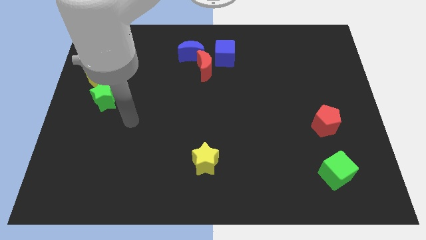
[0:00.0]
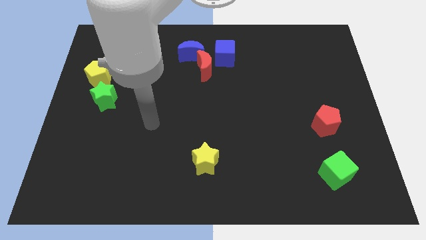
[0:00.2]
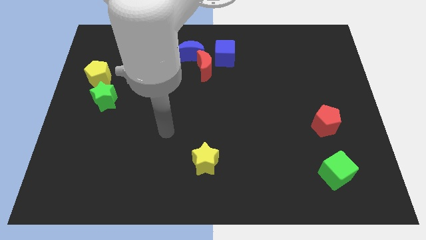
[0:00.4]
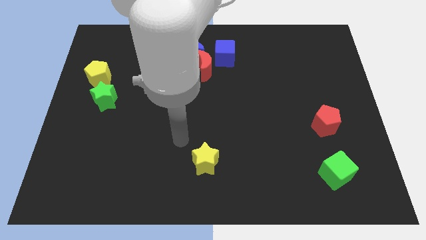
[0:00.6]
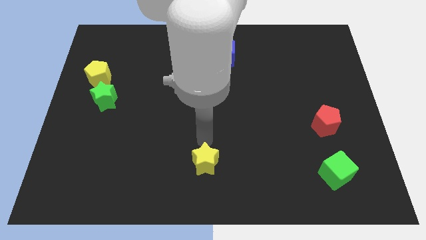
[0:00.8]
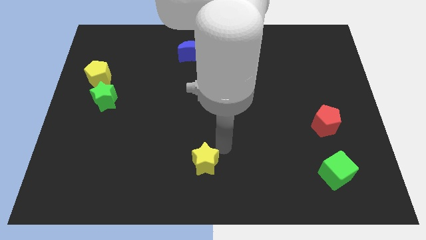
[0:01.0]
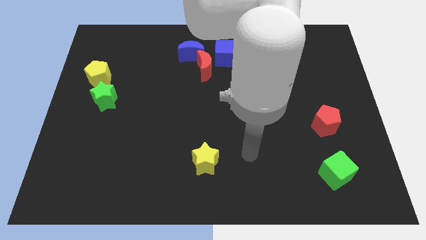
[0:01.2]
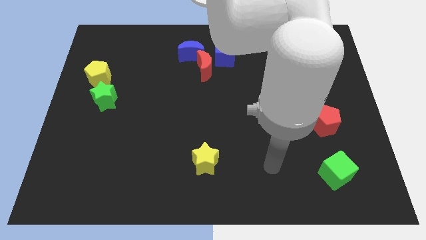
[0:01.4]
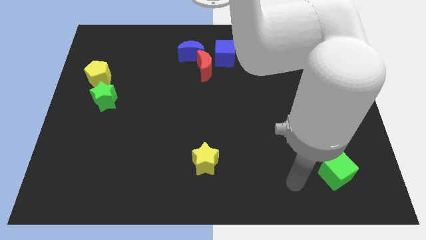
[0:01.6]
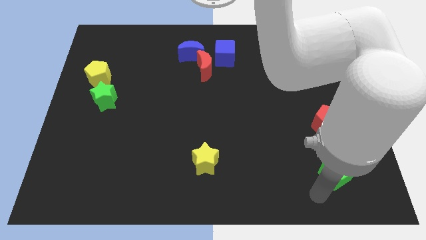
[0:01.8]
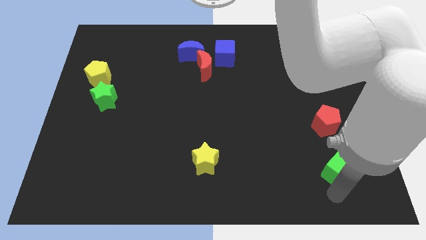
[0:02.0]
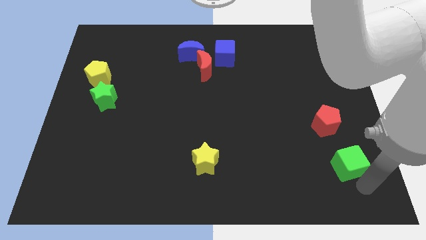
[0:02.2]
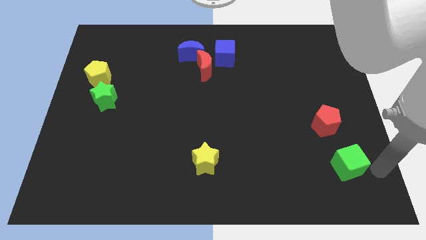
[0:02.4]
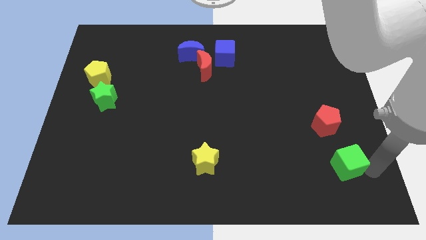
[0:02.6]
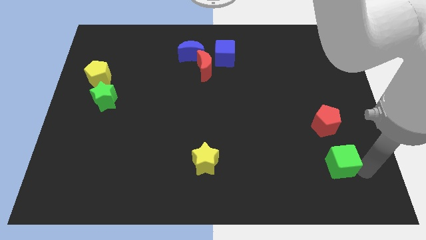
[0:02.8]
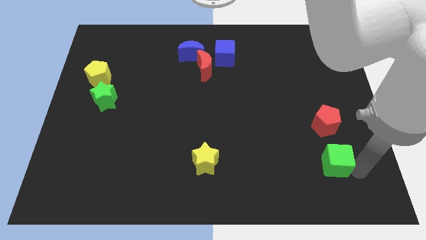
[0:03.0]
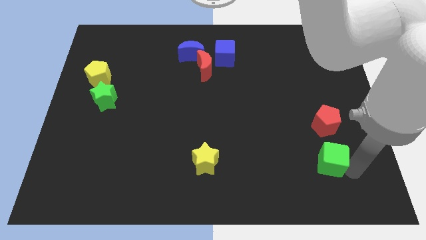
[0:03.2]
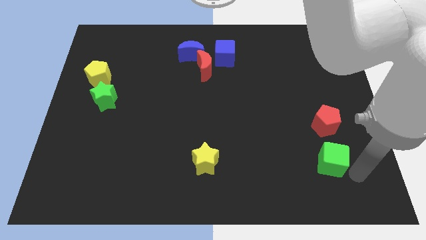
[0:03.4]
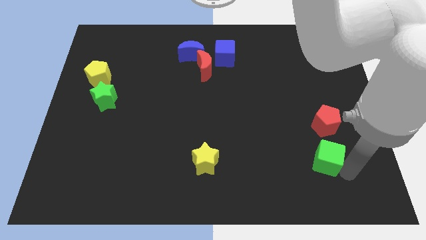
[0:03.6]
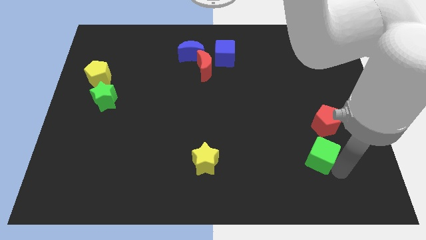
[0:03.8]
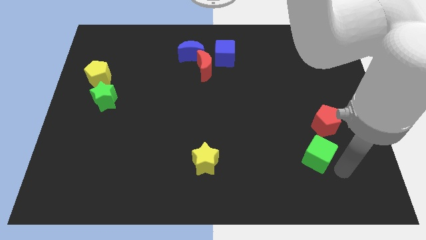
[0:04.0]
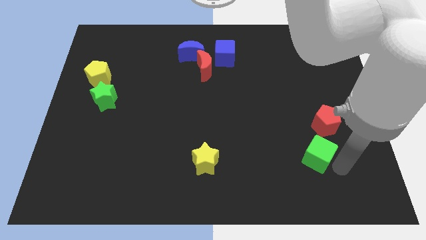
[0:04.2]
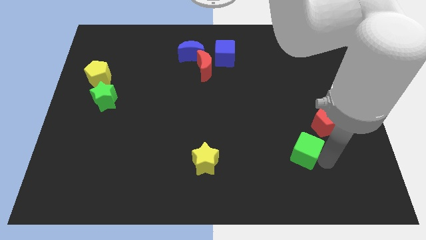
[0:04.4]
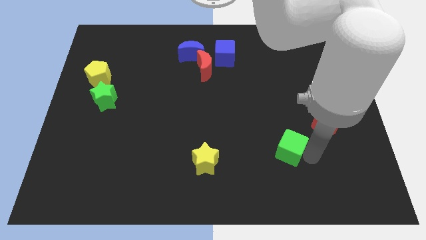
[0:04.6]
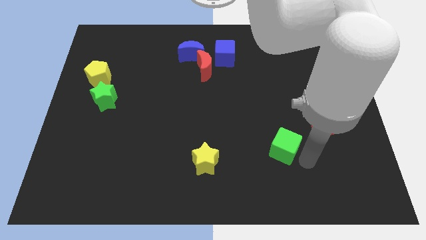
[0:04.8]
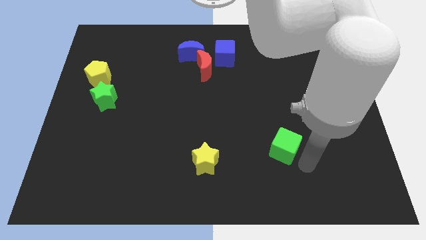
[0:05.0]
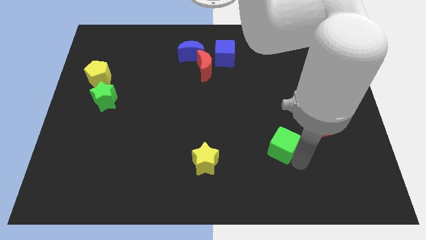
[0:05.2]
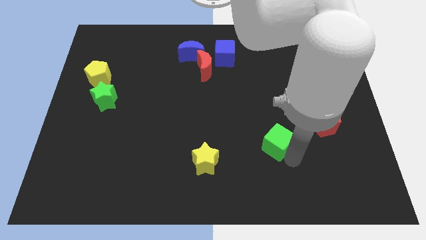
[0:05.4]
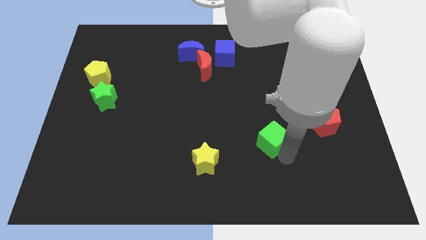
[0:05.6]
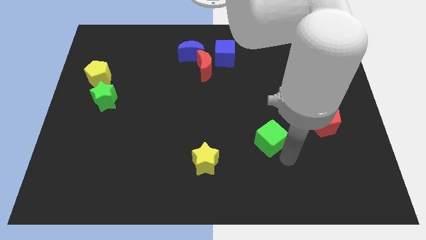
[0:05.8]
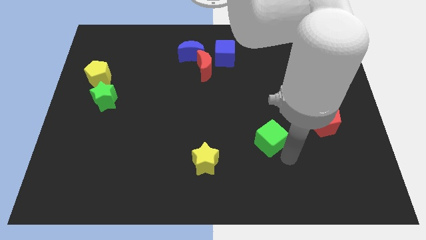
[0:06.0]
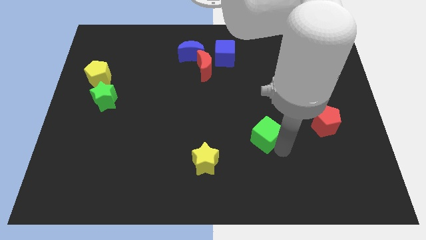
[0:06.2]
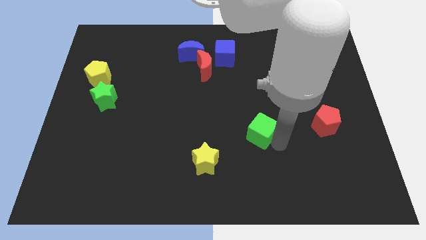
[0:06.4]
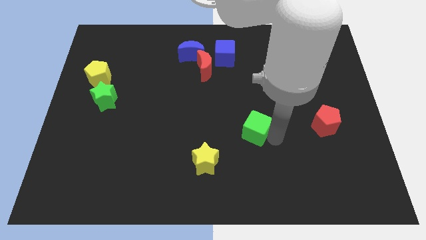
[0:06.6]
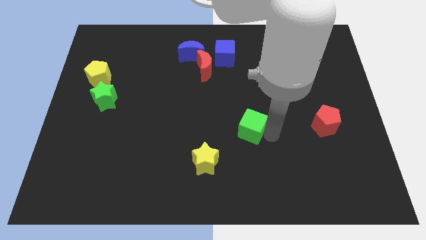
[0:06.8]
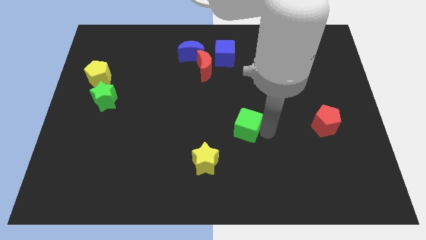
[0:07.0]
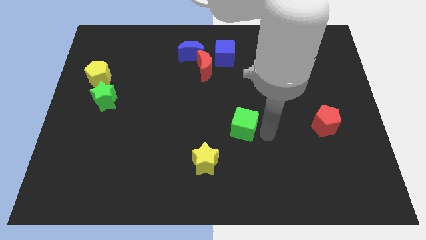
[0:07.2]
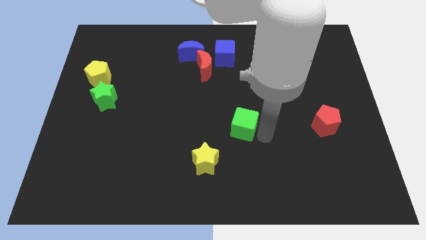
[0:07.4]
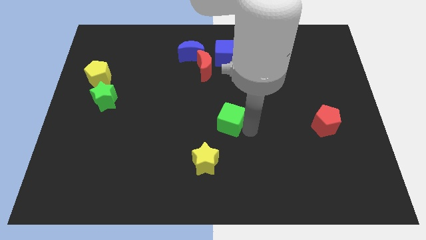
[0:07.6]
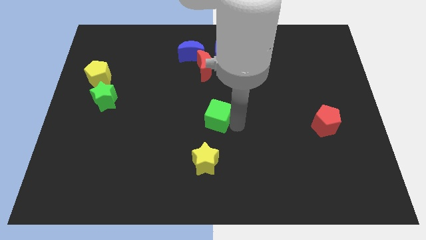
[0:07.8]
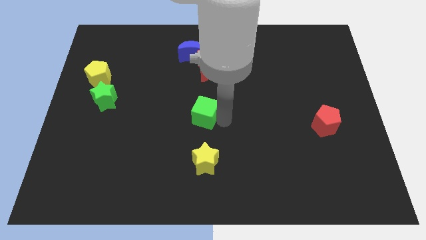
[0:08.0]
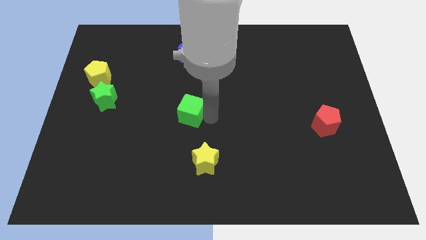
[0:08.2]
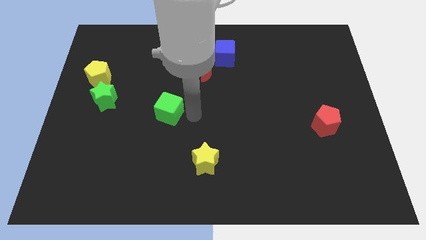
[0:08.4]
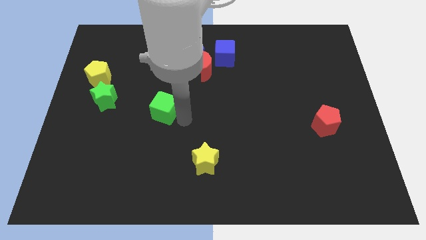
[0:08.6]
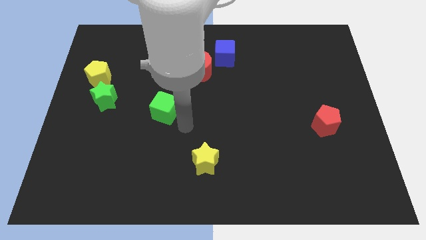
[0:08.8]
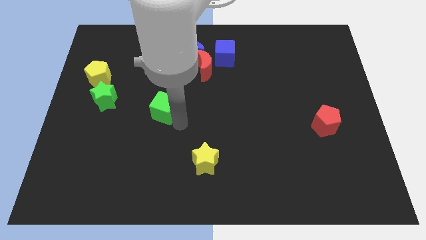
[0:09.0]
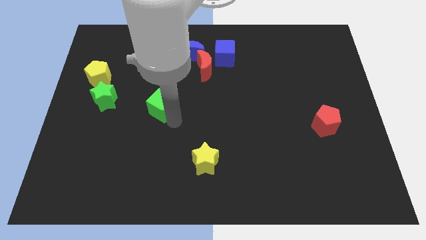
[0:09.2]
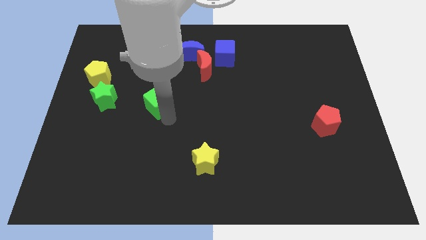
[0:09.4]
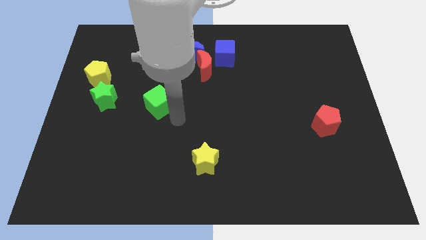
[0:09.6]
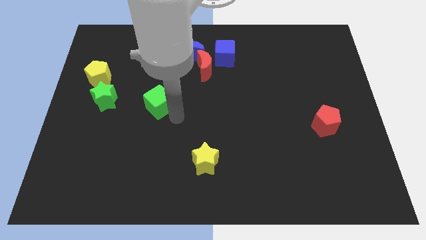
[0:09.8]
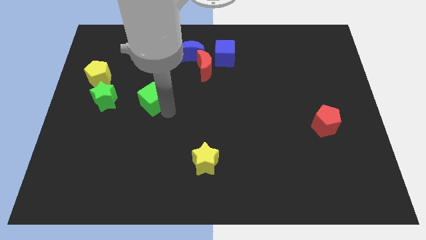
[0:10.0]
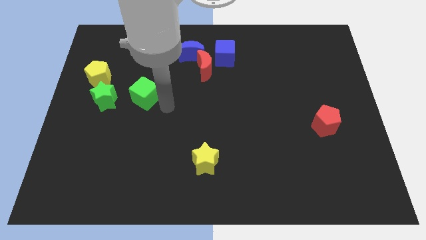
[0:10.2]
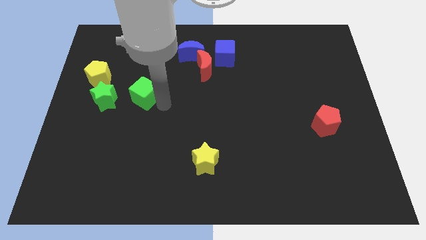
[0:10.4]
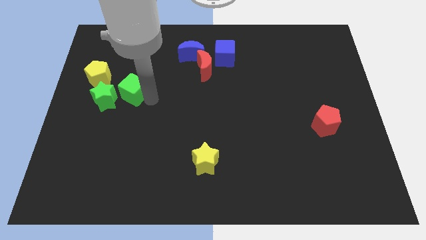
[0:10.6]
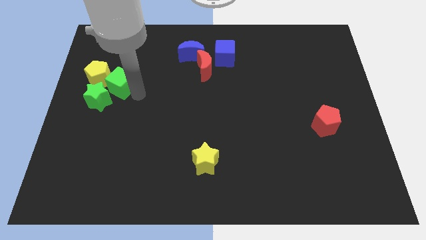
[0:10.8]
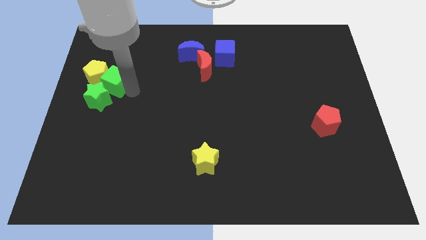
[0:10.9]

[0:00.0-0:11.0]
push the green cube next to the yellow pentagon

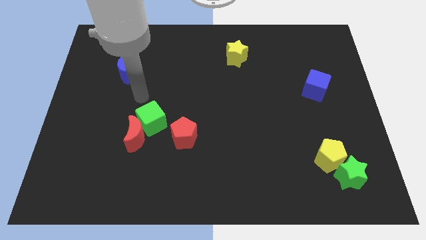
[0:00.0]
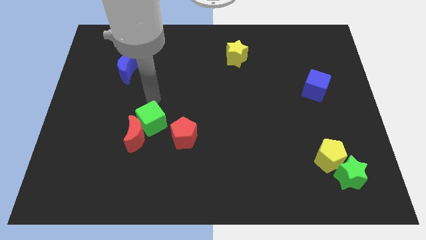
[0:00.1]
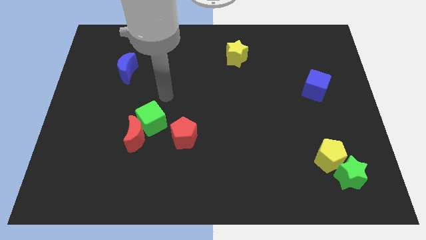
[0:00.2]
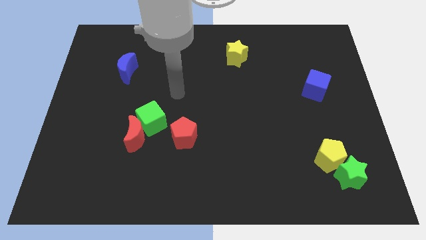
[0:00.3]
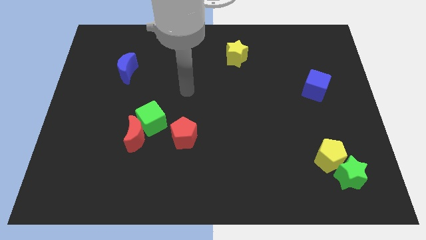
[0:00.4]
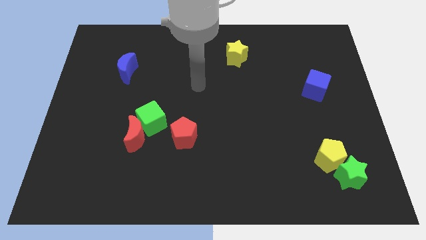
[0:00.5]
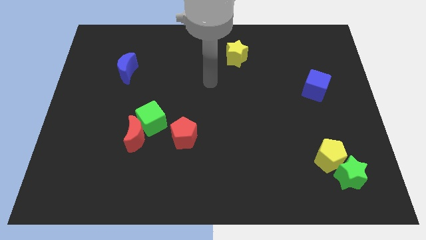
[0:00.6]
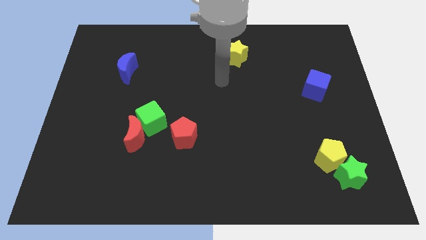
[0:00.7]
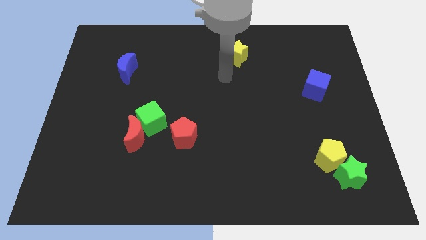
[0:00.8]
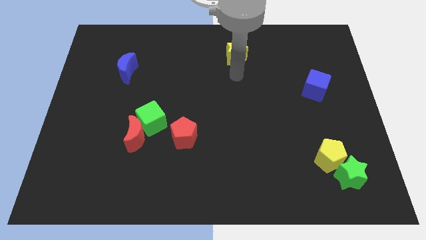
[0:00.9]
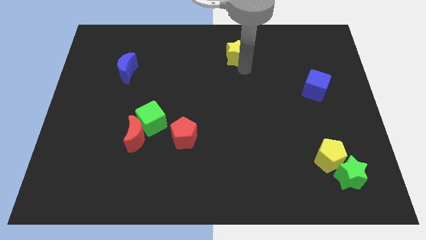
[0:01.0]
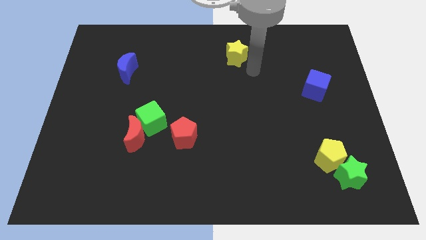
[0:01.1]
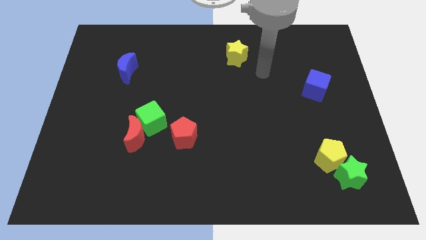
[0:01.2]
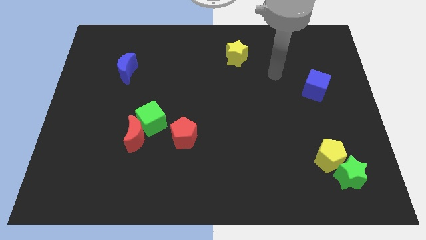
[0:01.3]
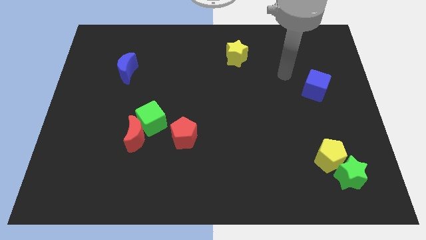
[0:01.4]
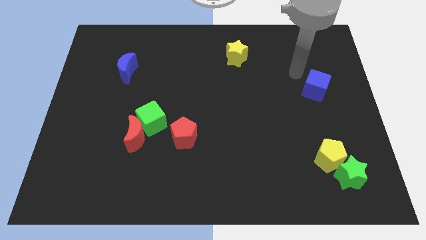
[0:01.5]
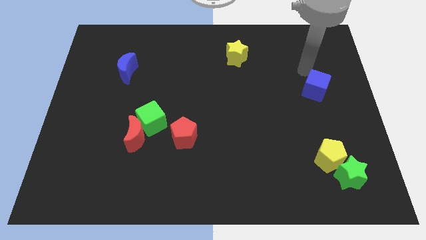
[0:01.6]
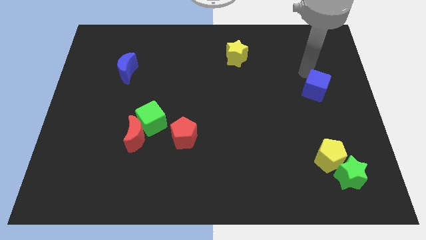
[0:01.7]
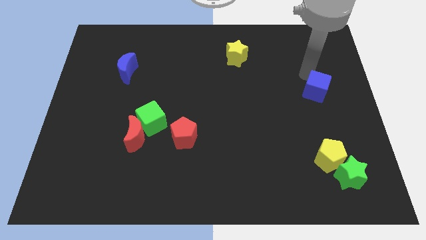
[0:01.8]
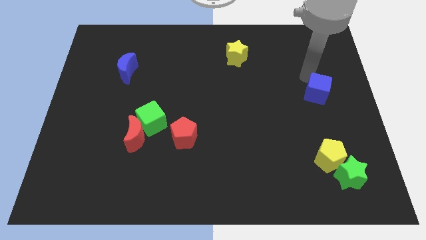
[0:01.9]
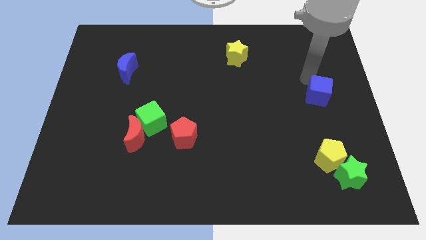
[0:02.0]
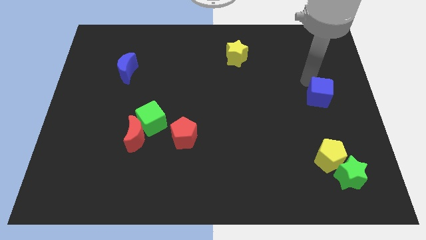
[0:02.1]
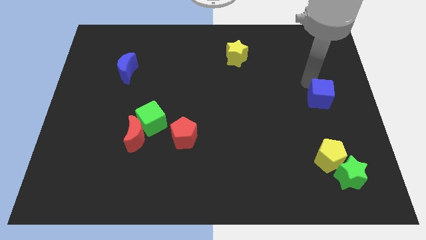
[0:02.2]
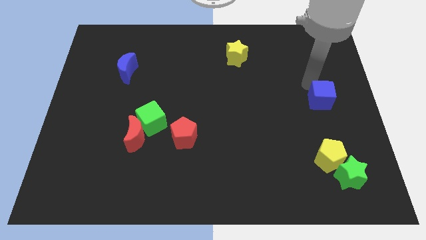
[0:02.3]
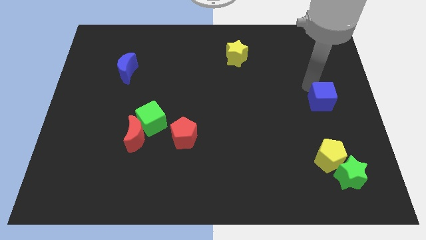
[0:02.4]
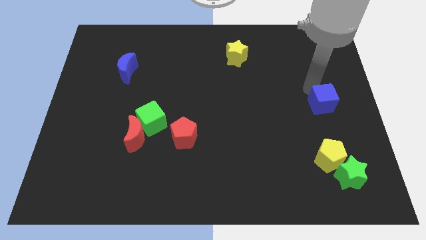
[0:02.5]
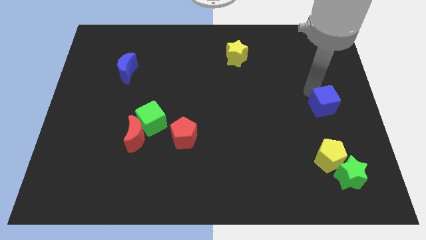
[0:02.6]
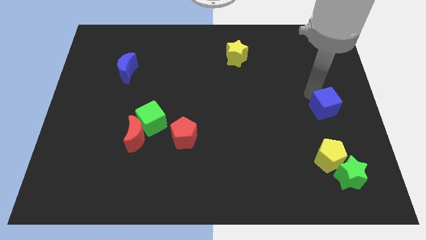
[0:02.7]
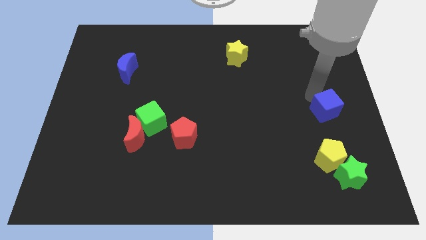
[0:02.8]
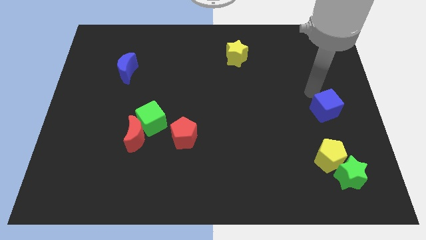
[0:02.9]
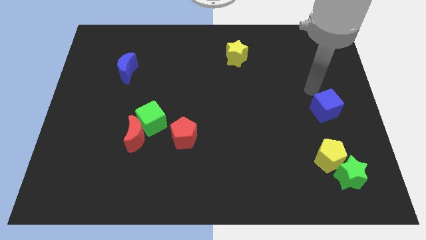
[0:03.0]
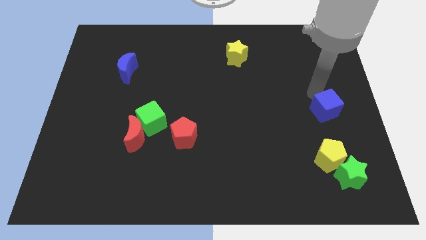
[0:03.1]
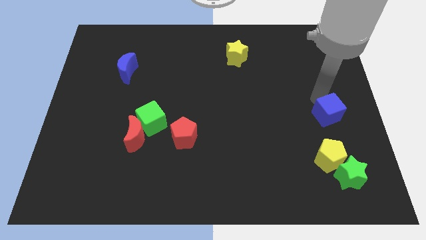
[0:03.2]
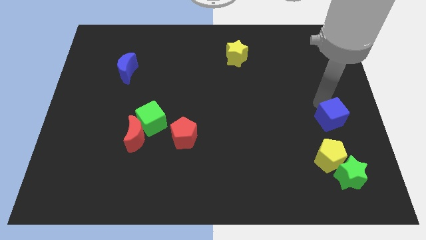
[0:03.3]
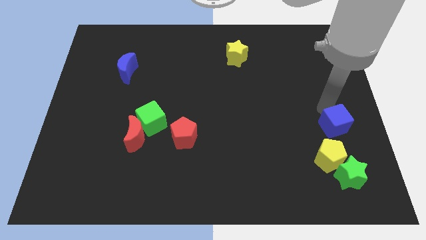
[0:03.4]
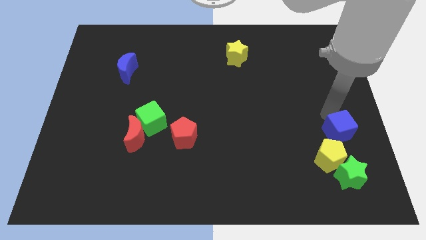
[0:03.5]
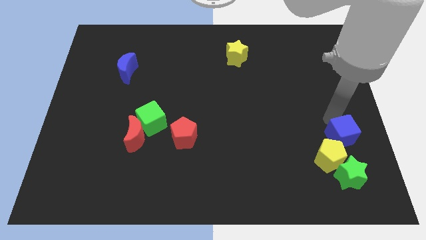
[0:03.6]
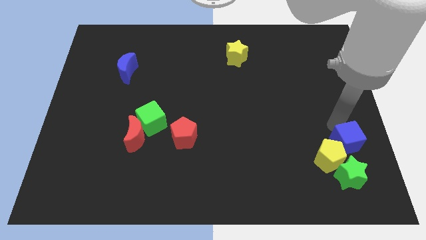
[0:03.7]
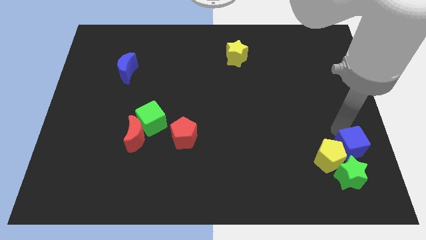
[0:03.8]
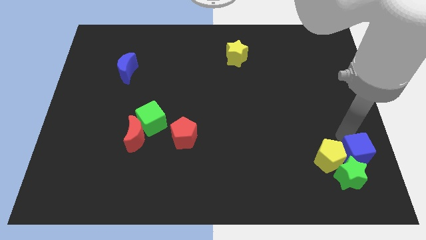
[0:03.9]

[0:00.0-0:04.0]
move the blue cube to the green star
